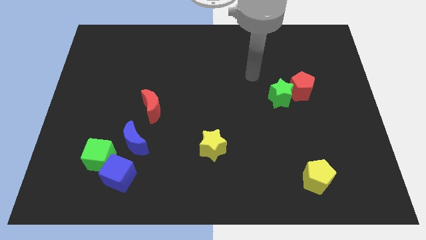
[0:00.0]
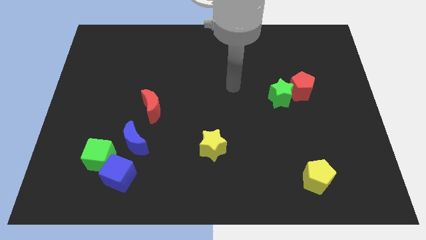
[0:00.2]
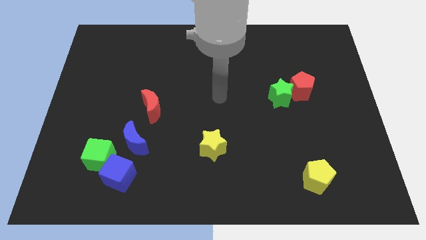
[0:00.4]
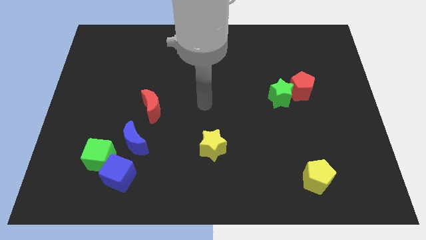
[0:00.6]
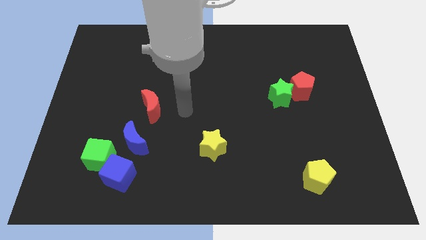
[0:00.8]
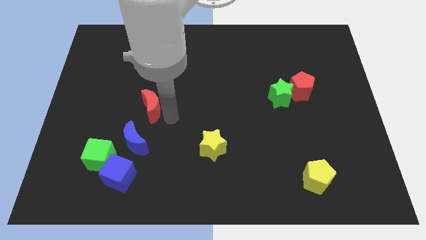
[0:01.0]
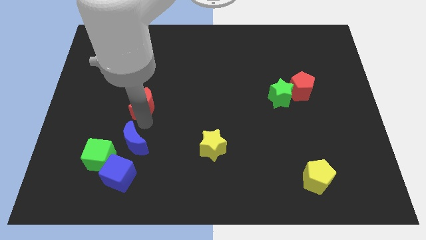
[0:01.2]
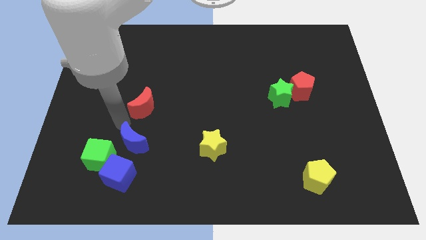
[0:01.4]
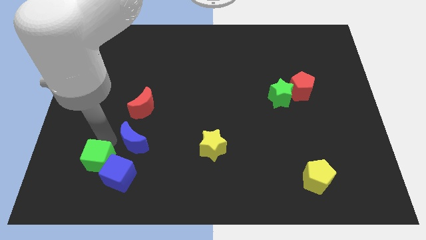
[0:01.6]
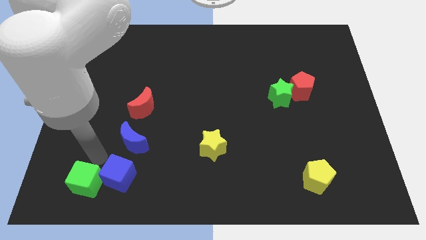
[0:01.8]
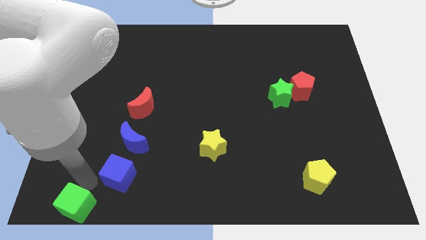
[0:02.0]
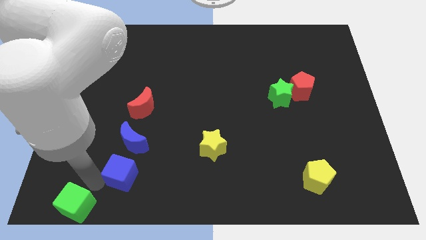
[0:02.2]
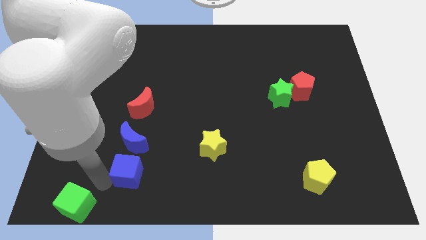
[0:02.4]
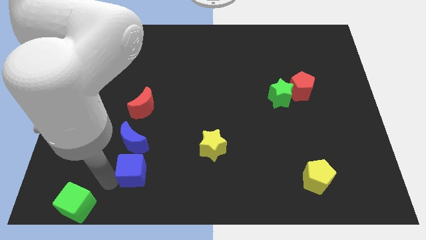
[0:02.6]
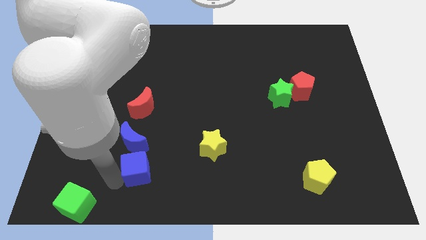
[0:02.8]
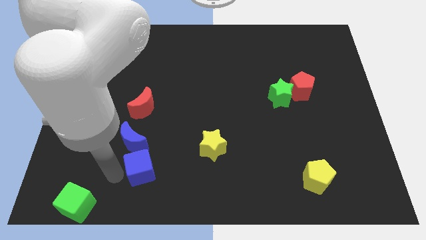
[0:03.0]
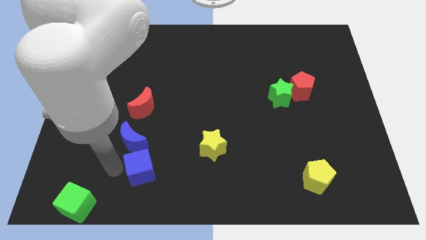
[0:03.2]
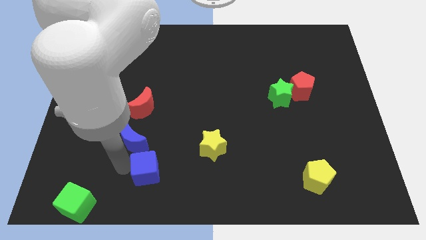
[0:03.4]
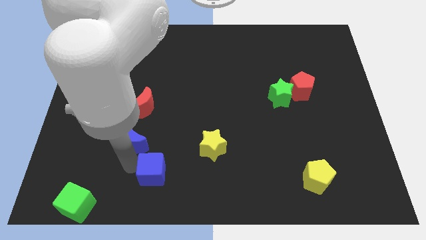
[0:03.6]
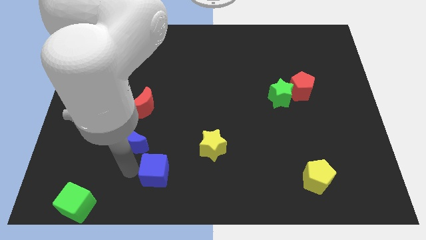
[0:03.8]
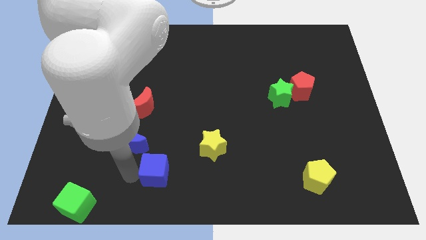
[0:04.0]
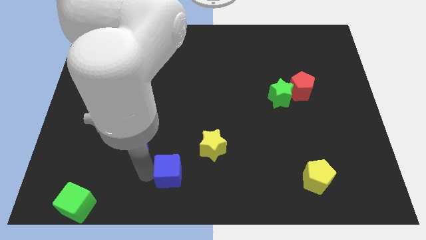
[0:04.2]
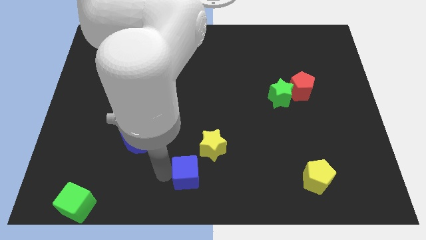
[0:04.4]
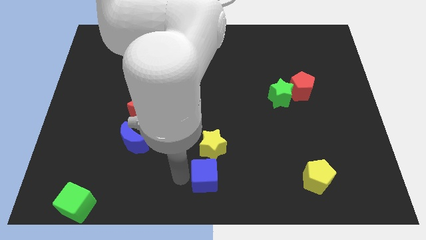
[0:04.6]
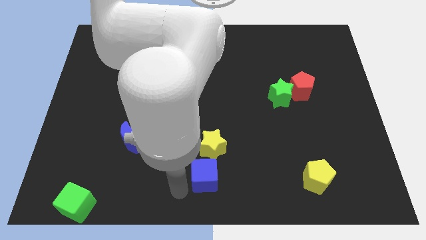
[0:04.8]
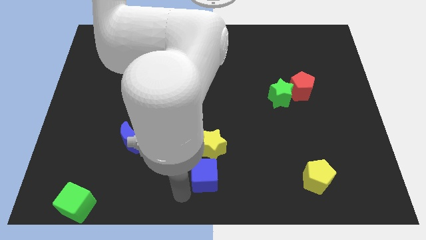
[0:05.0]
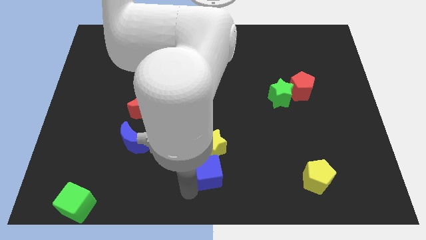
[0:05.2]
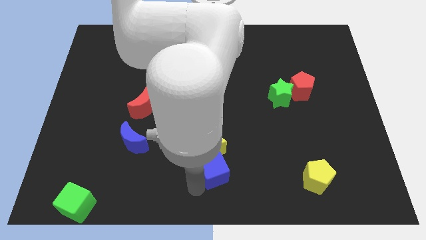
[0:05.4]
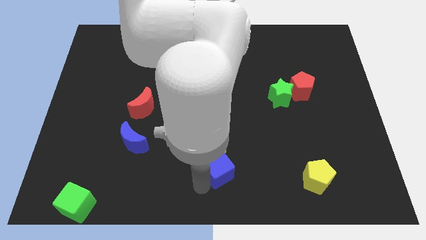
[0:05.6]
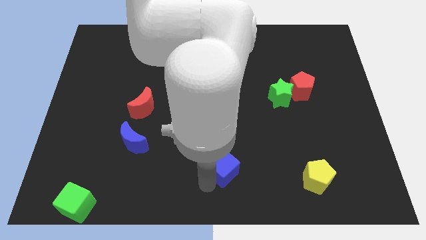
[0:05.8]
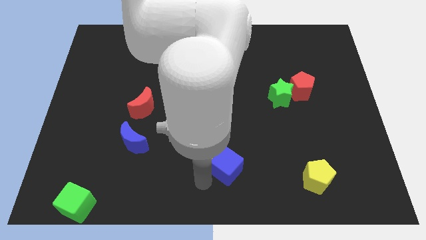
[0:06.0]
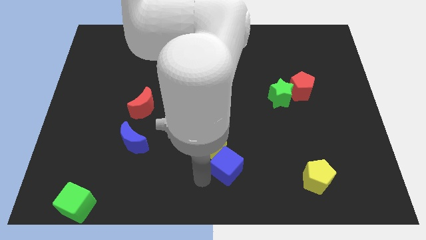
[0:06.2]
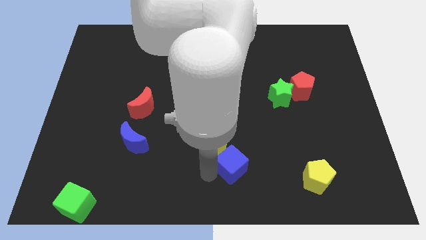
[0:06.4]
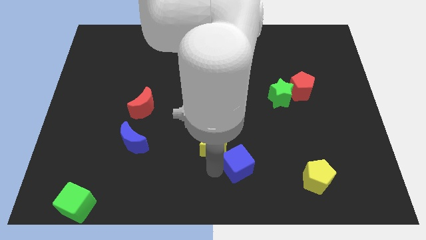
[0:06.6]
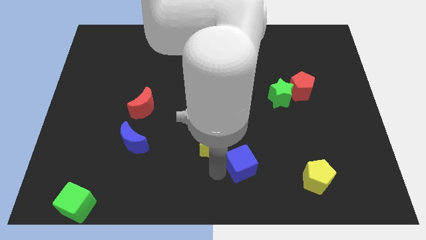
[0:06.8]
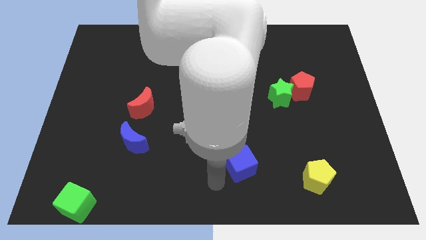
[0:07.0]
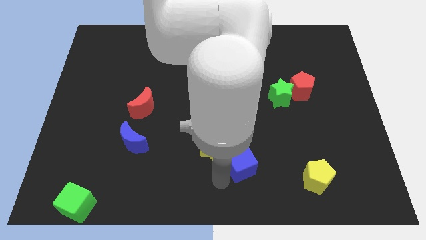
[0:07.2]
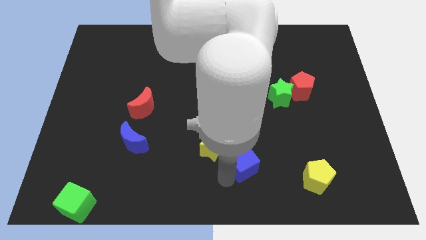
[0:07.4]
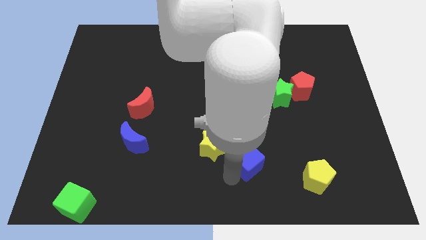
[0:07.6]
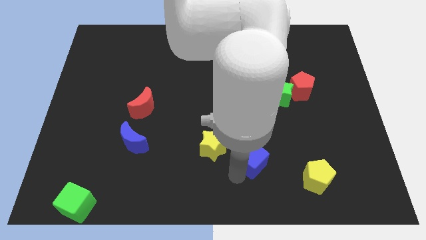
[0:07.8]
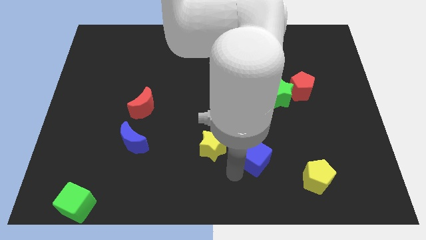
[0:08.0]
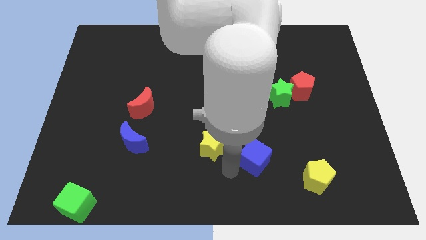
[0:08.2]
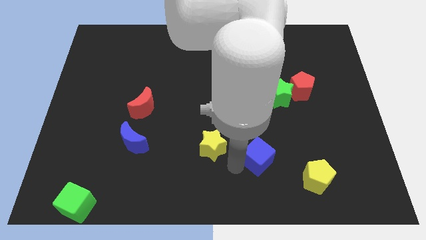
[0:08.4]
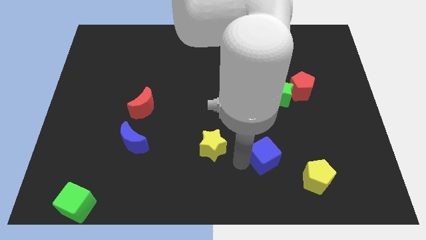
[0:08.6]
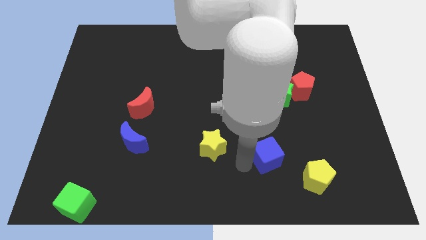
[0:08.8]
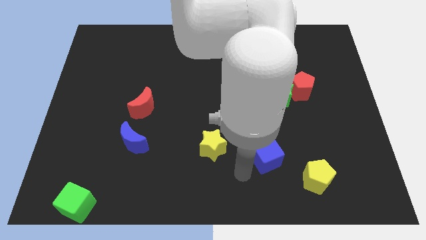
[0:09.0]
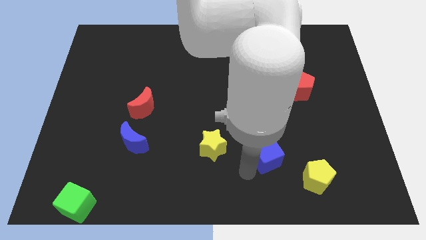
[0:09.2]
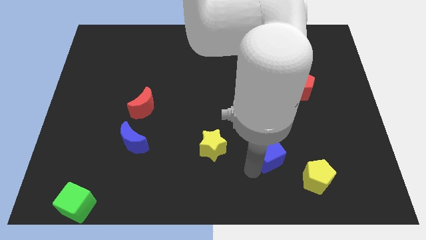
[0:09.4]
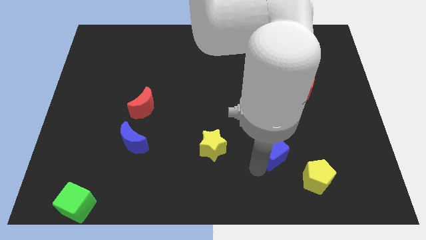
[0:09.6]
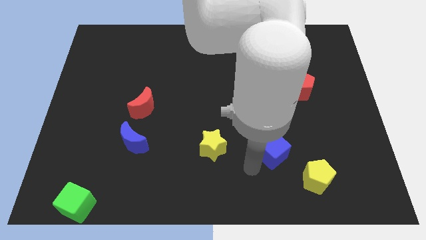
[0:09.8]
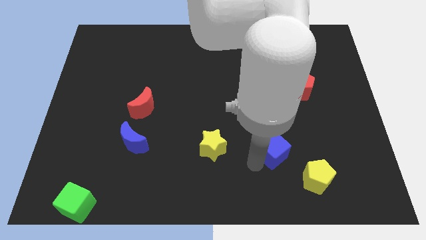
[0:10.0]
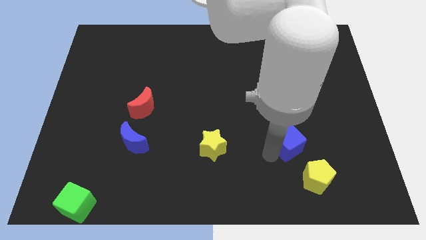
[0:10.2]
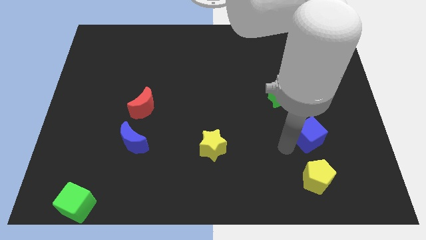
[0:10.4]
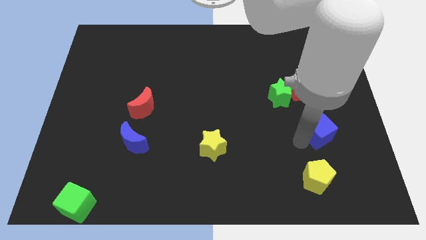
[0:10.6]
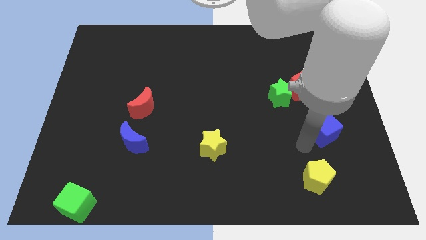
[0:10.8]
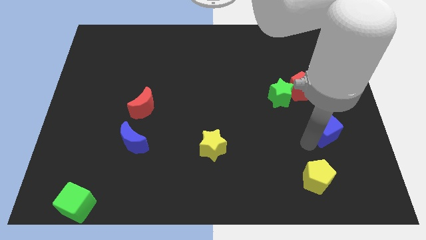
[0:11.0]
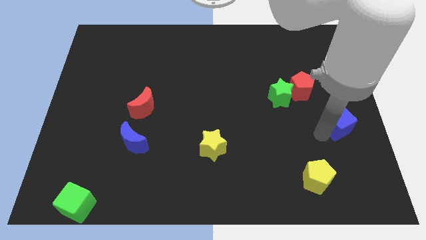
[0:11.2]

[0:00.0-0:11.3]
slide the blue cube to the right side

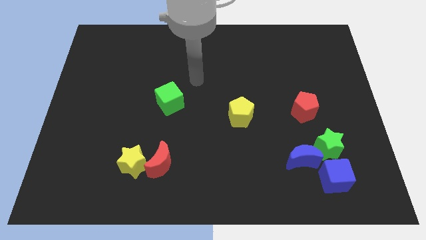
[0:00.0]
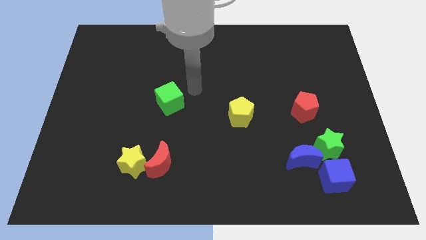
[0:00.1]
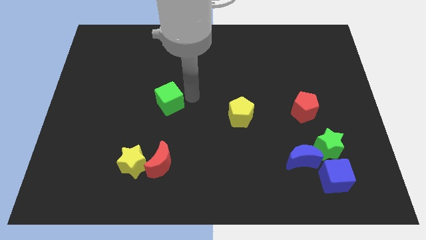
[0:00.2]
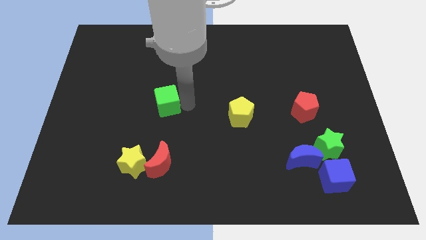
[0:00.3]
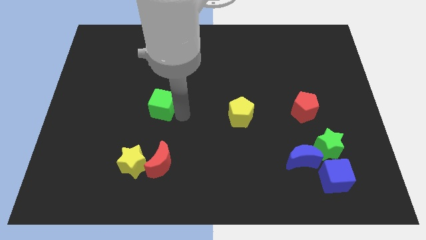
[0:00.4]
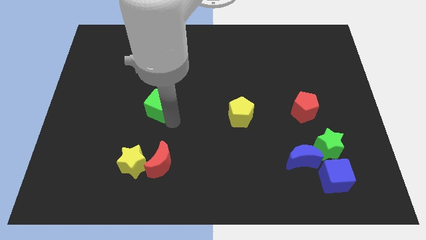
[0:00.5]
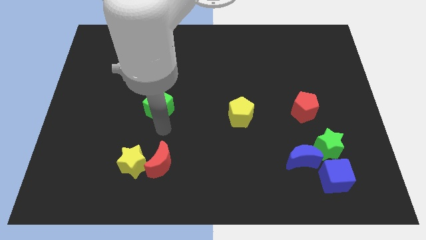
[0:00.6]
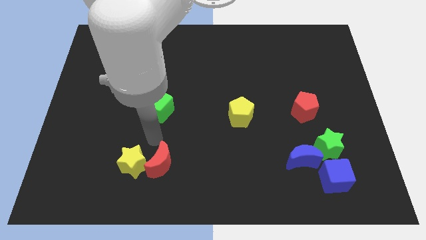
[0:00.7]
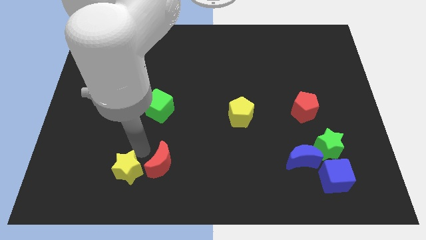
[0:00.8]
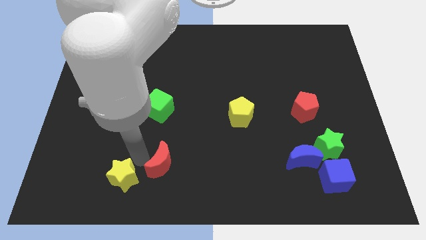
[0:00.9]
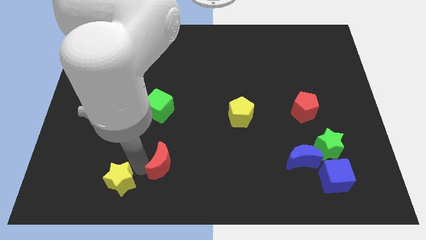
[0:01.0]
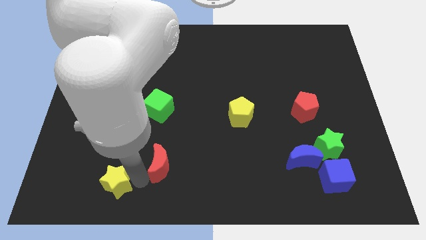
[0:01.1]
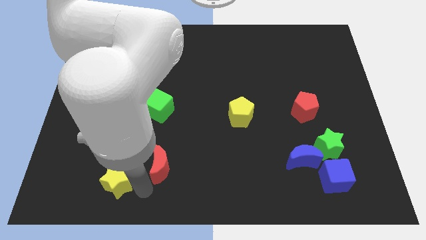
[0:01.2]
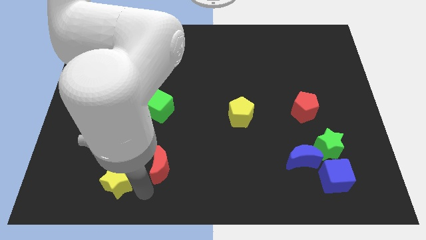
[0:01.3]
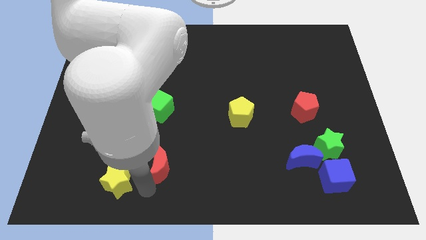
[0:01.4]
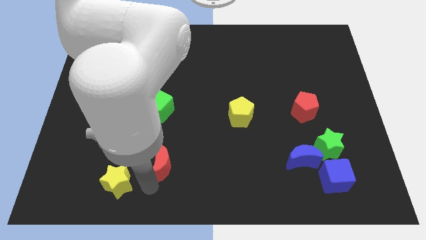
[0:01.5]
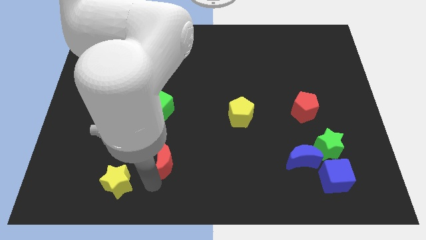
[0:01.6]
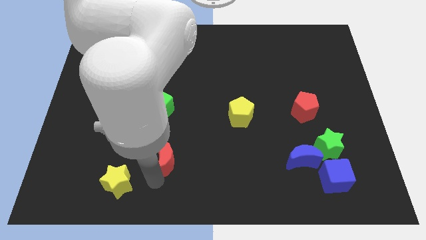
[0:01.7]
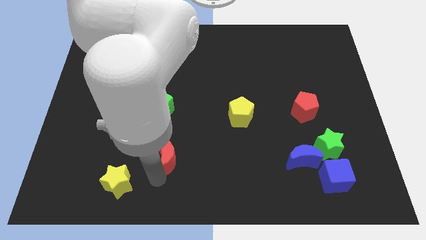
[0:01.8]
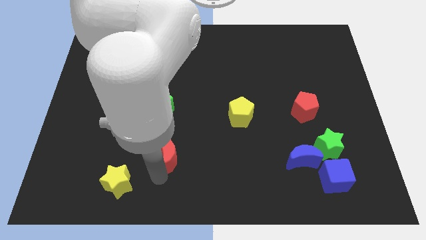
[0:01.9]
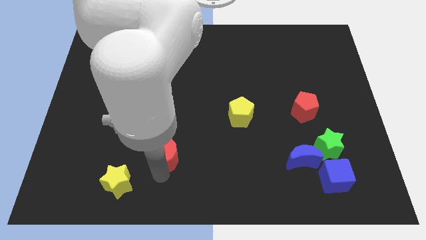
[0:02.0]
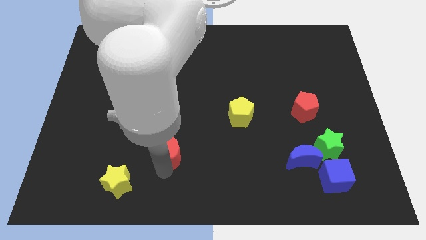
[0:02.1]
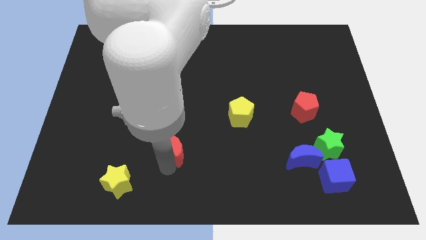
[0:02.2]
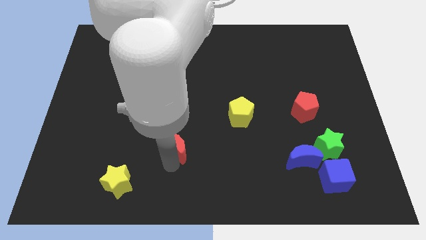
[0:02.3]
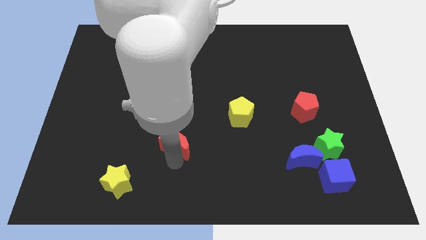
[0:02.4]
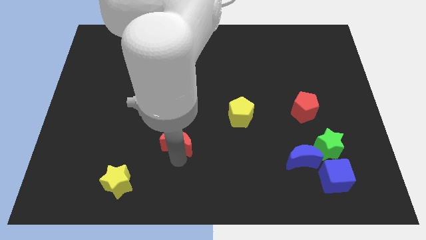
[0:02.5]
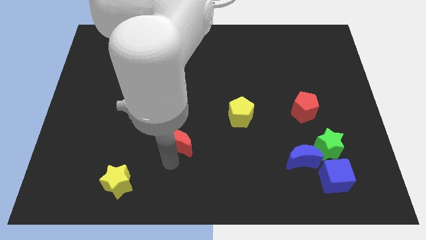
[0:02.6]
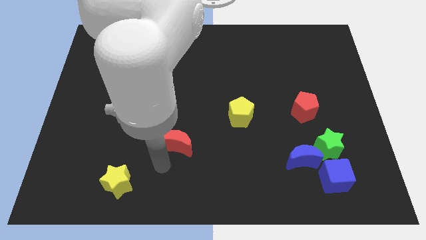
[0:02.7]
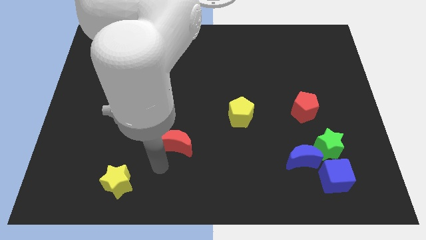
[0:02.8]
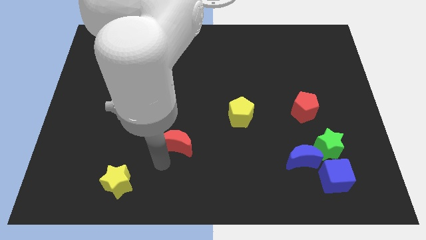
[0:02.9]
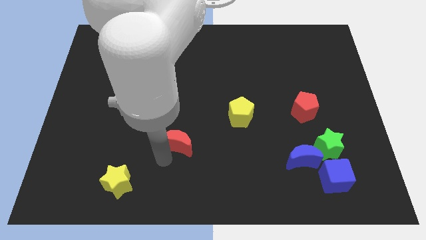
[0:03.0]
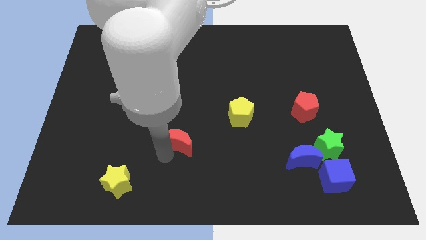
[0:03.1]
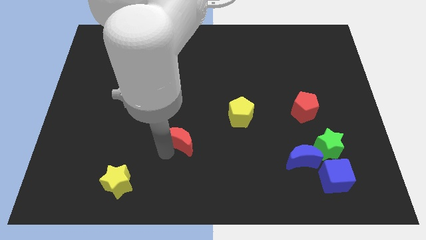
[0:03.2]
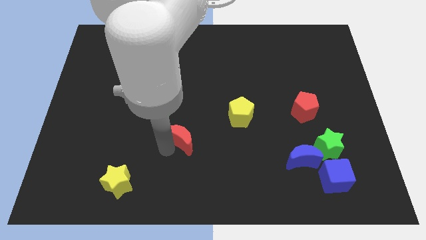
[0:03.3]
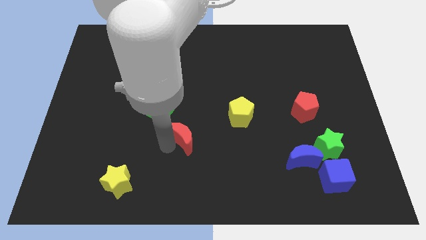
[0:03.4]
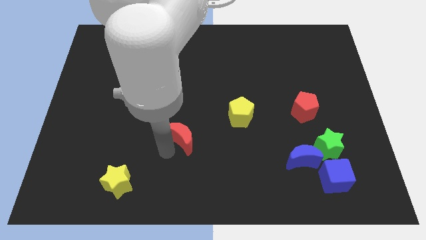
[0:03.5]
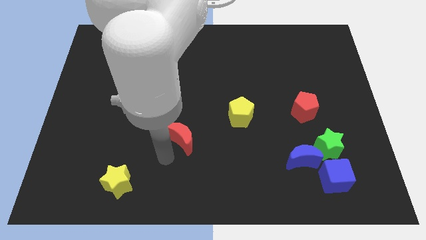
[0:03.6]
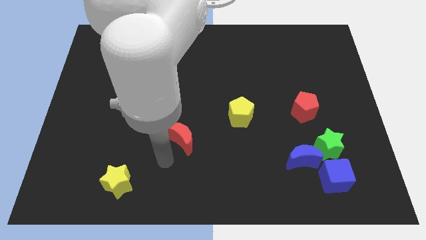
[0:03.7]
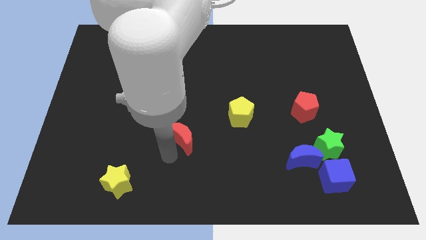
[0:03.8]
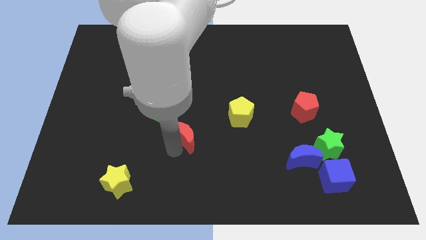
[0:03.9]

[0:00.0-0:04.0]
move the red moon to the middle of the board
